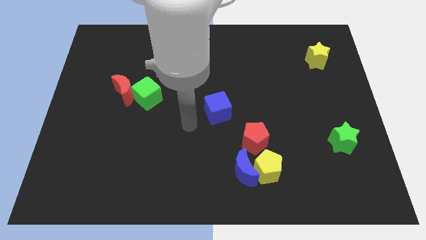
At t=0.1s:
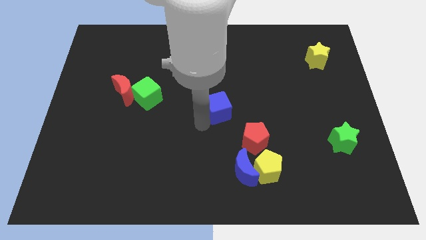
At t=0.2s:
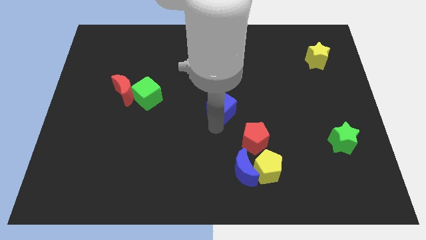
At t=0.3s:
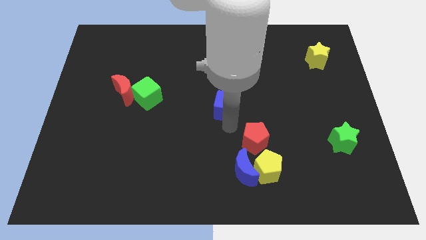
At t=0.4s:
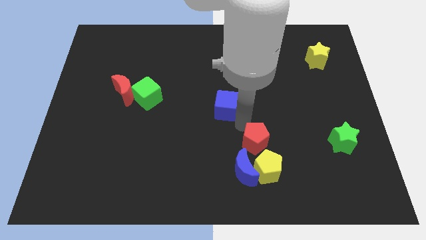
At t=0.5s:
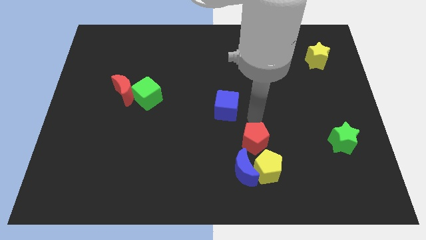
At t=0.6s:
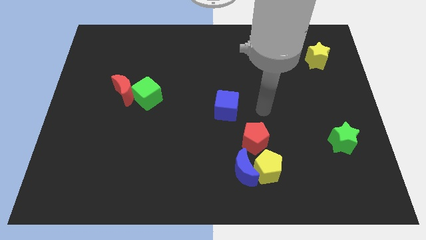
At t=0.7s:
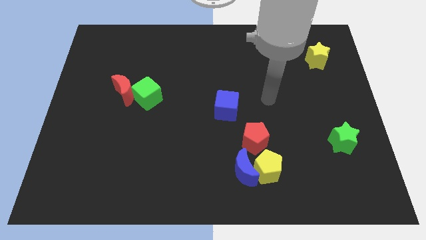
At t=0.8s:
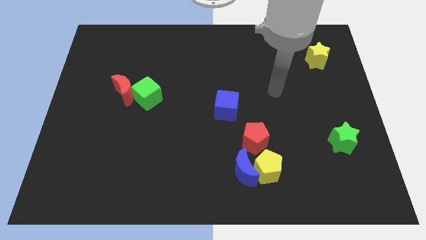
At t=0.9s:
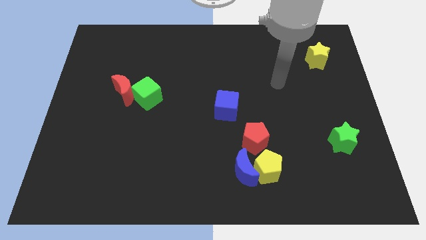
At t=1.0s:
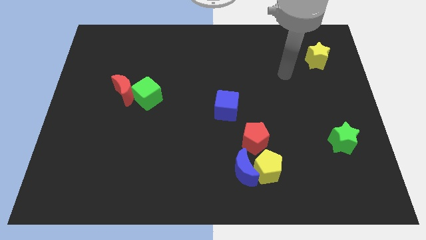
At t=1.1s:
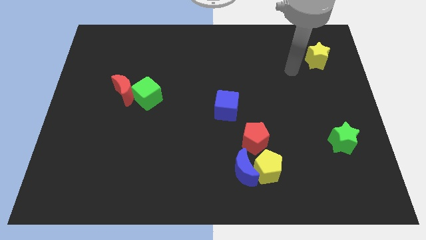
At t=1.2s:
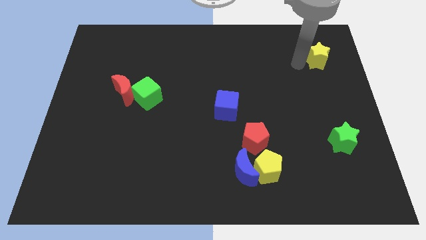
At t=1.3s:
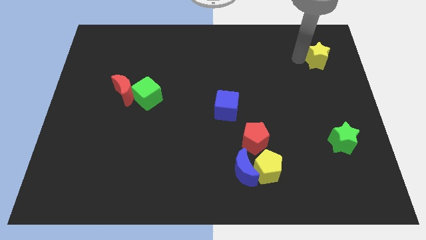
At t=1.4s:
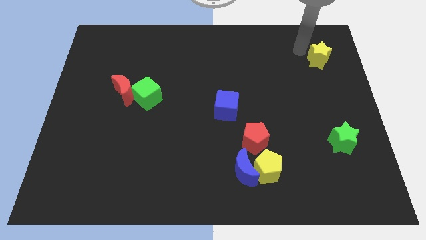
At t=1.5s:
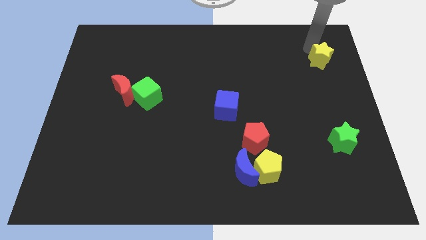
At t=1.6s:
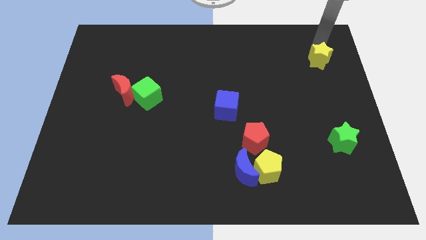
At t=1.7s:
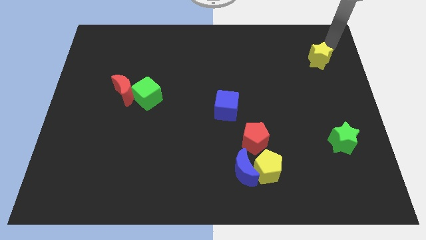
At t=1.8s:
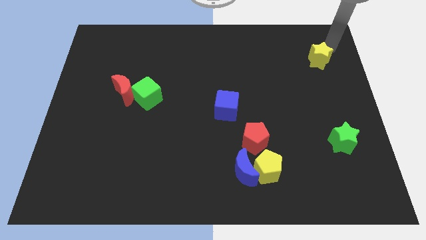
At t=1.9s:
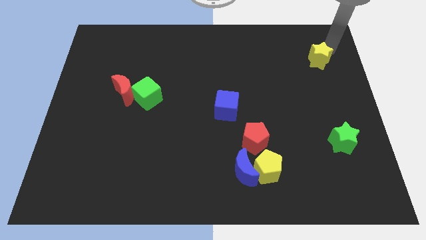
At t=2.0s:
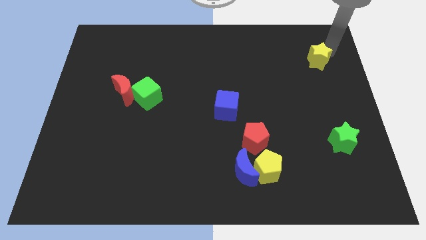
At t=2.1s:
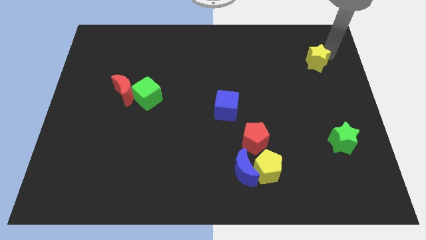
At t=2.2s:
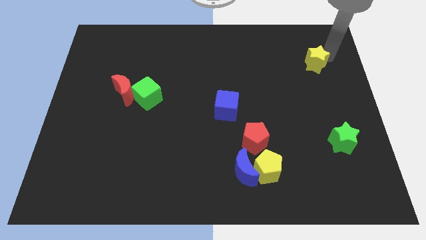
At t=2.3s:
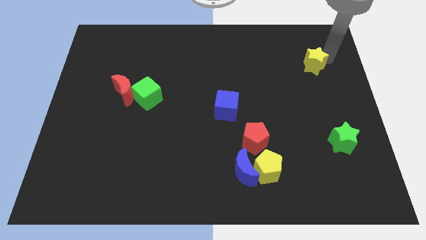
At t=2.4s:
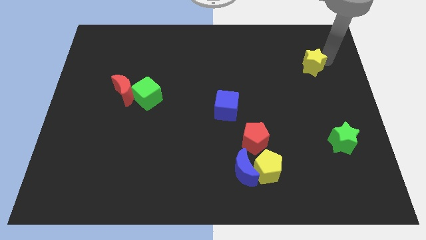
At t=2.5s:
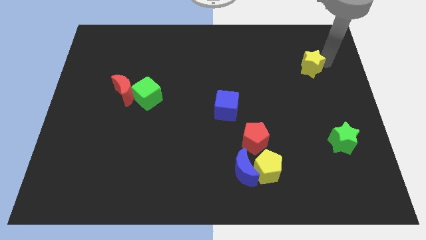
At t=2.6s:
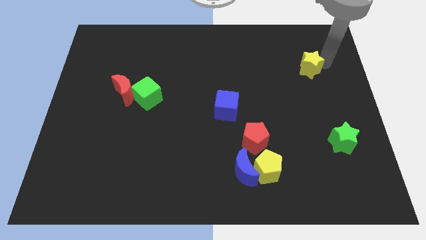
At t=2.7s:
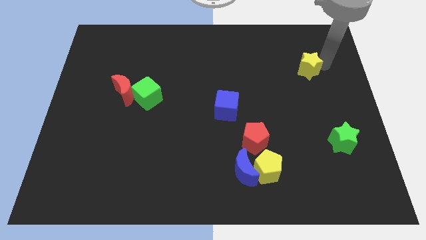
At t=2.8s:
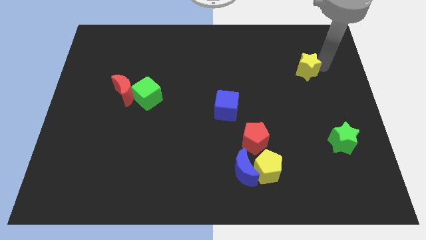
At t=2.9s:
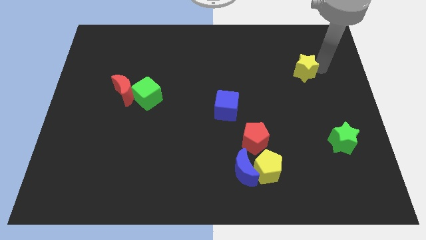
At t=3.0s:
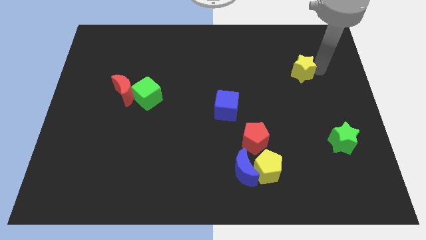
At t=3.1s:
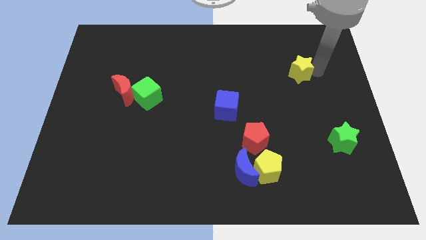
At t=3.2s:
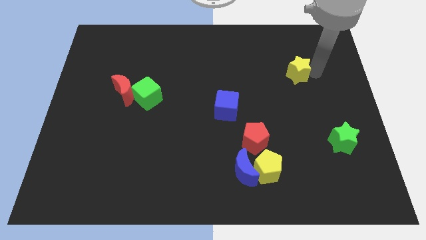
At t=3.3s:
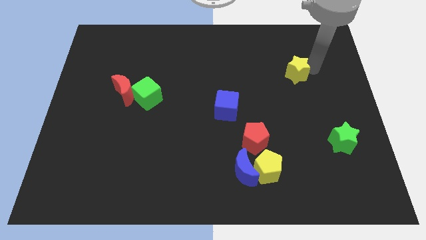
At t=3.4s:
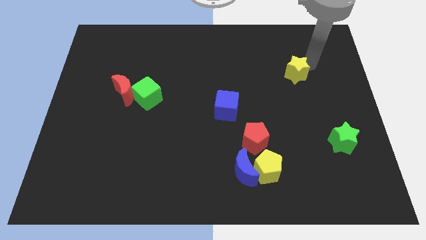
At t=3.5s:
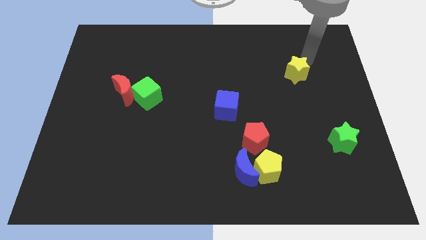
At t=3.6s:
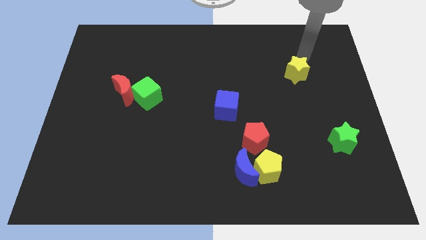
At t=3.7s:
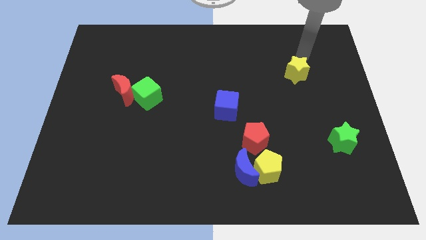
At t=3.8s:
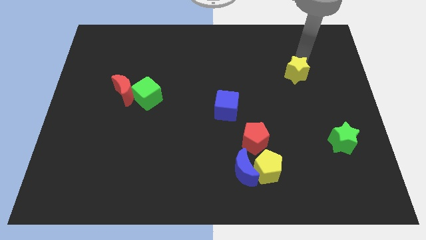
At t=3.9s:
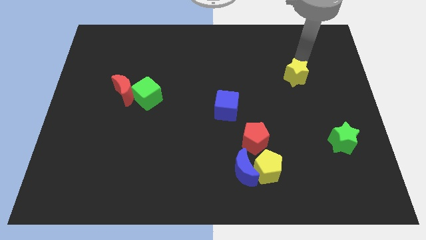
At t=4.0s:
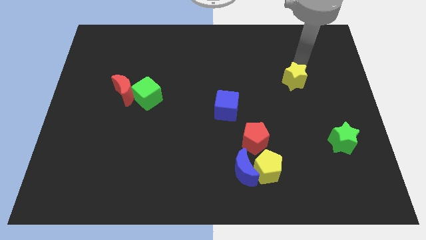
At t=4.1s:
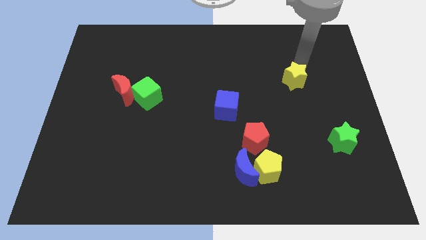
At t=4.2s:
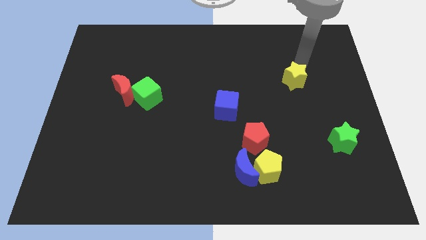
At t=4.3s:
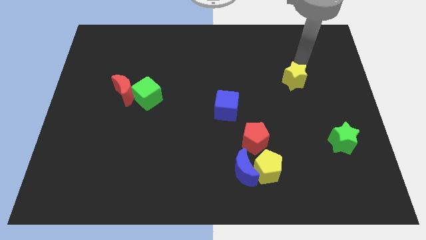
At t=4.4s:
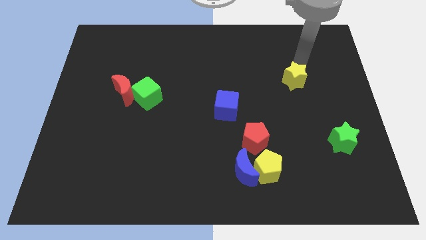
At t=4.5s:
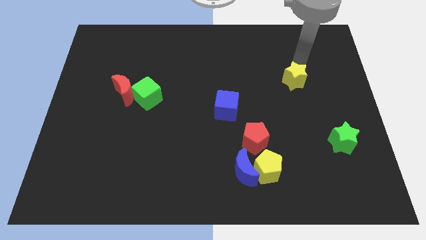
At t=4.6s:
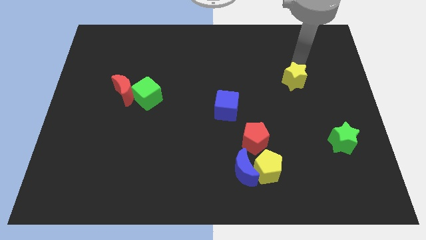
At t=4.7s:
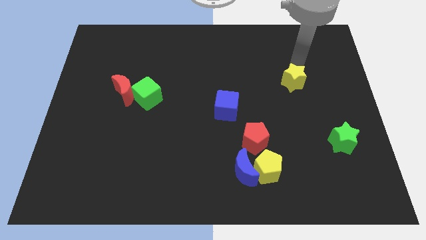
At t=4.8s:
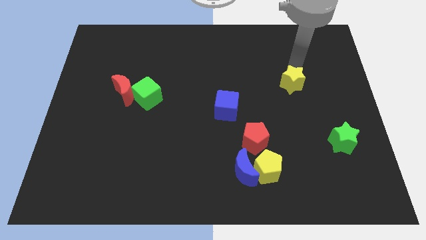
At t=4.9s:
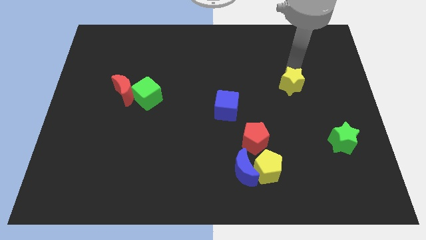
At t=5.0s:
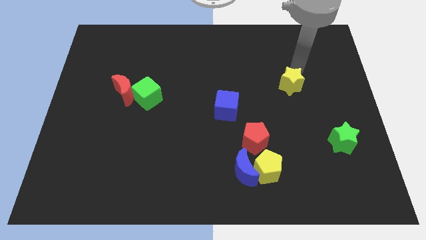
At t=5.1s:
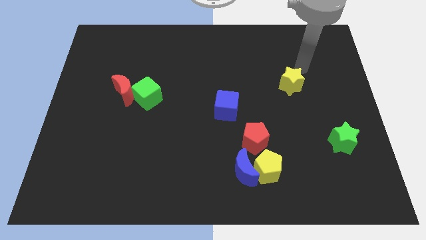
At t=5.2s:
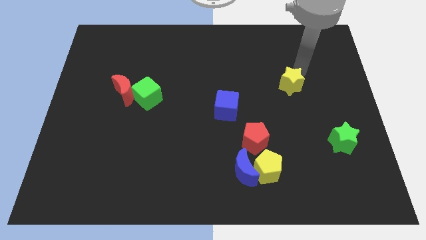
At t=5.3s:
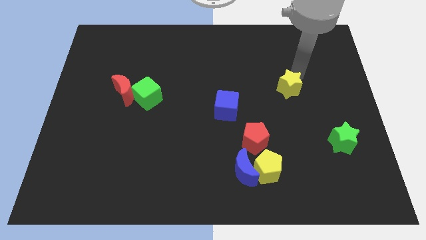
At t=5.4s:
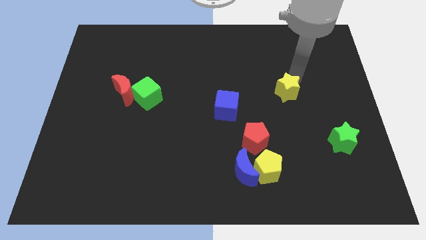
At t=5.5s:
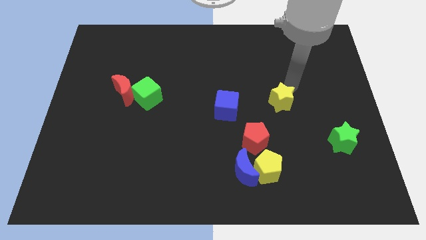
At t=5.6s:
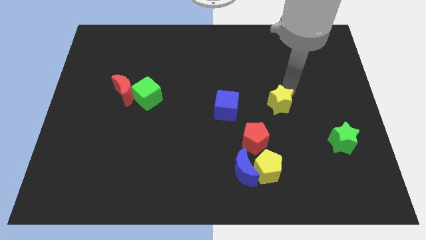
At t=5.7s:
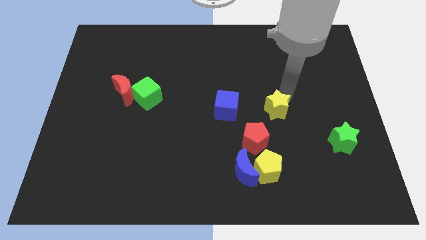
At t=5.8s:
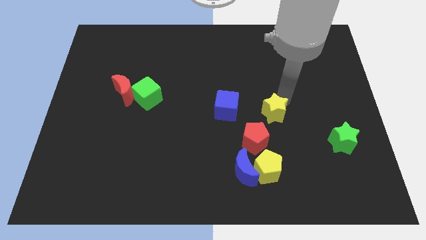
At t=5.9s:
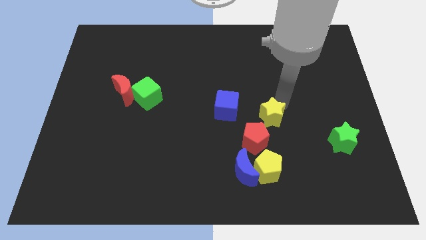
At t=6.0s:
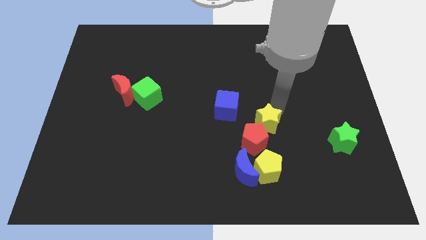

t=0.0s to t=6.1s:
push the yellow star towards the red pentagon

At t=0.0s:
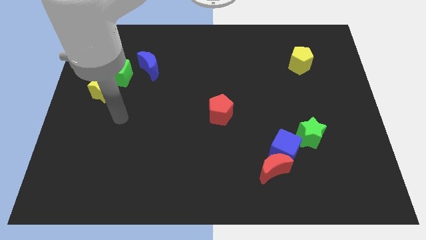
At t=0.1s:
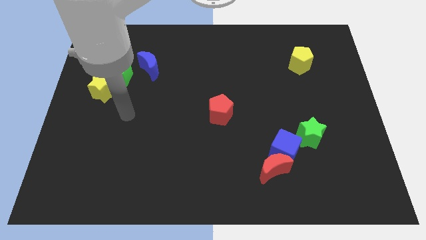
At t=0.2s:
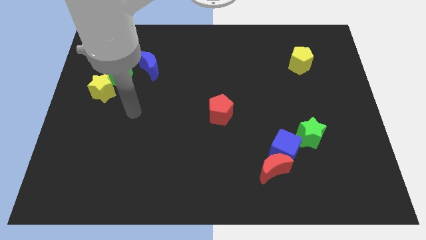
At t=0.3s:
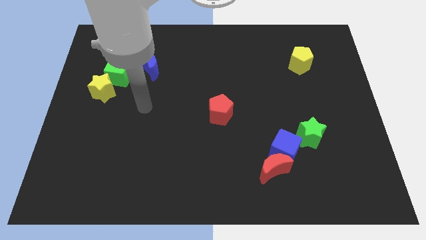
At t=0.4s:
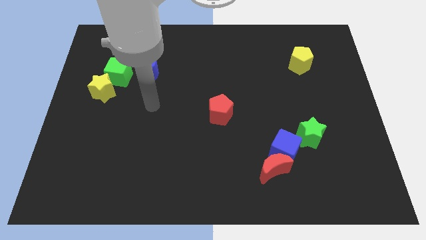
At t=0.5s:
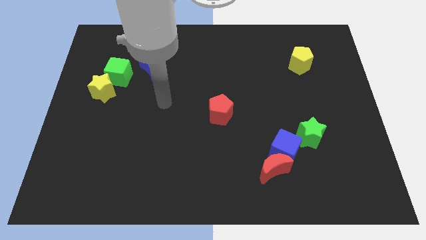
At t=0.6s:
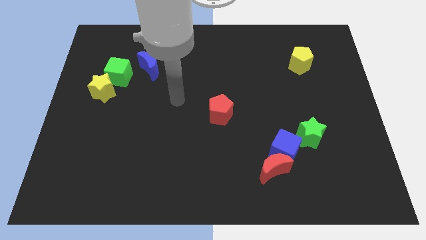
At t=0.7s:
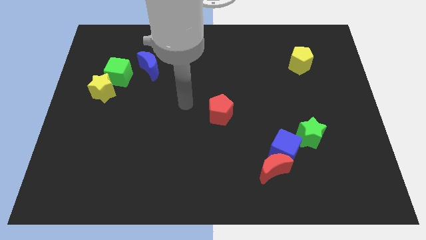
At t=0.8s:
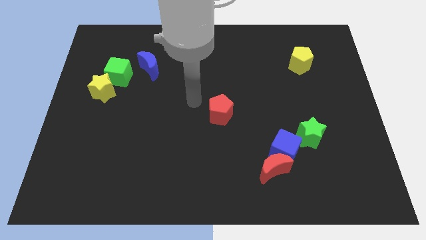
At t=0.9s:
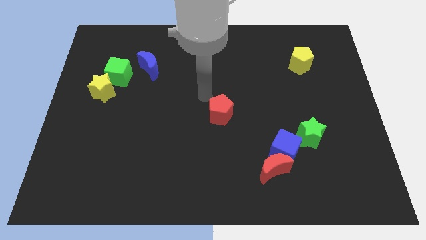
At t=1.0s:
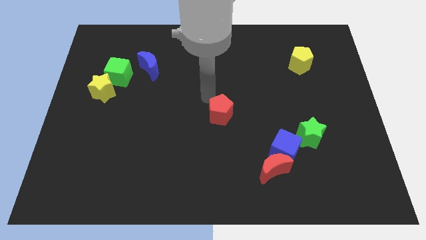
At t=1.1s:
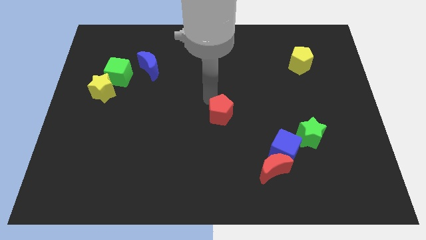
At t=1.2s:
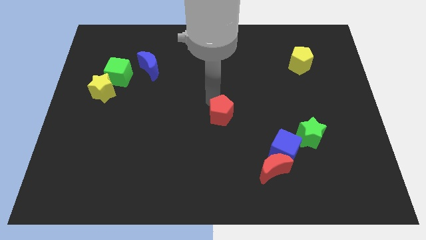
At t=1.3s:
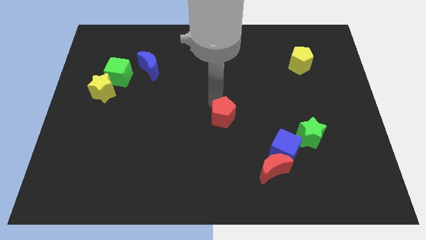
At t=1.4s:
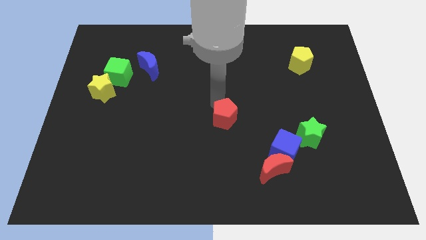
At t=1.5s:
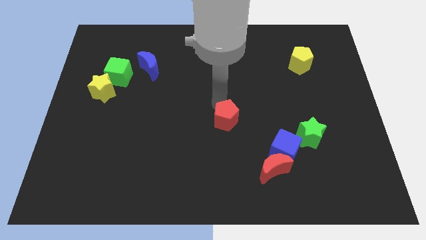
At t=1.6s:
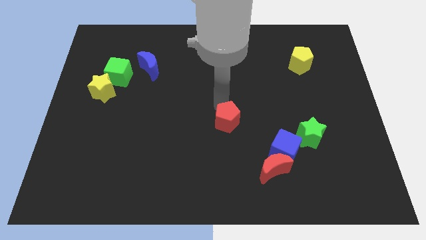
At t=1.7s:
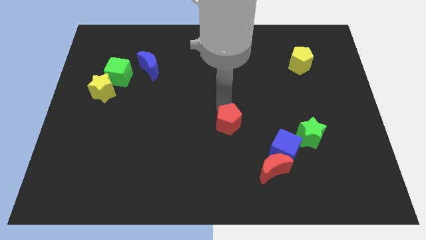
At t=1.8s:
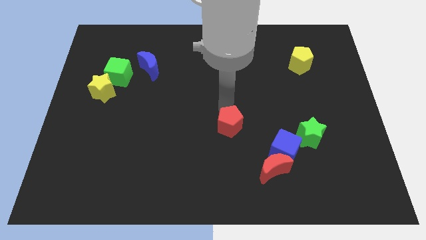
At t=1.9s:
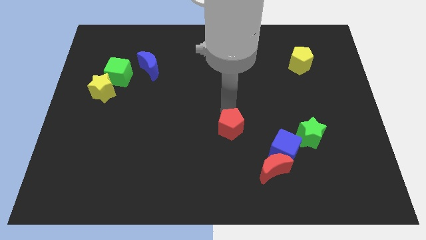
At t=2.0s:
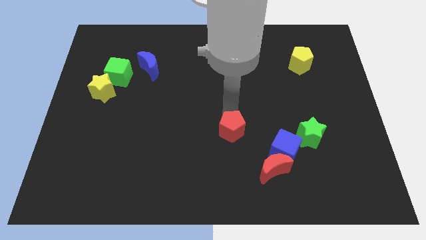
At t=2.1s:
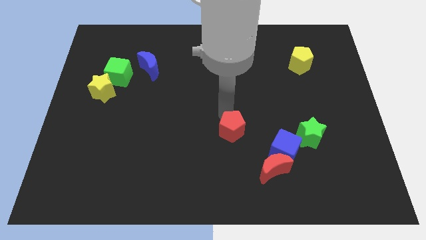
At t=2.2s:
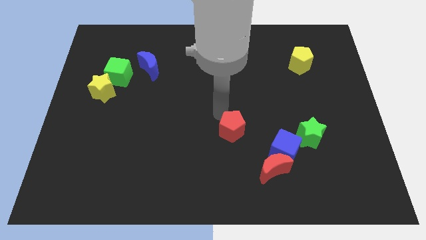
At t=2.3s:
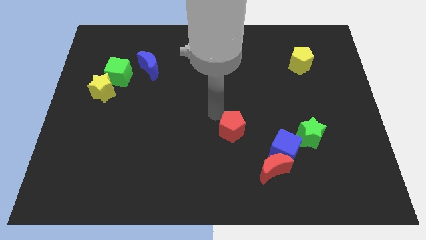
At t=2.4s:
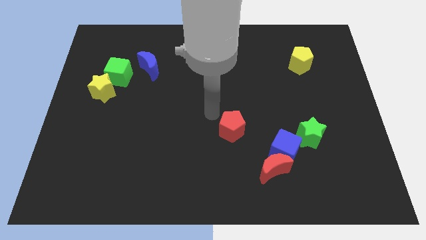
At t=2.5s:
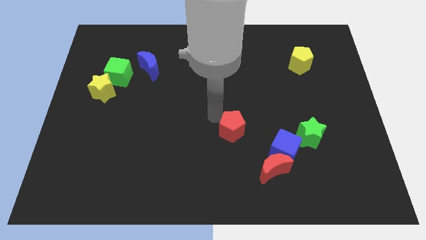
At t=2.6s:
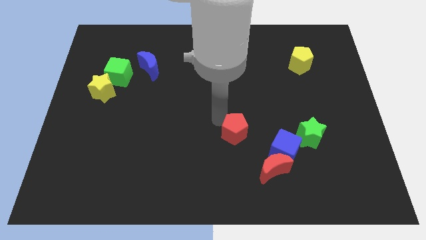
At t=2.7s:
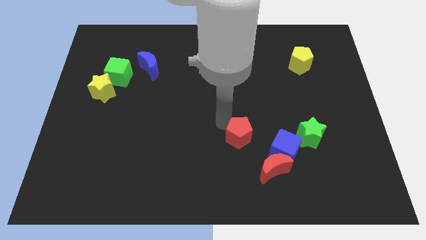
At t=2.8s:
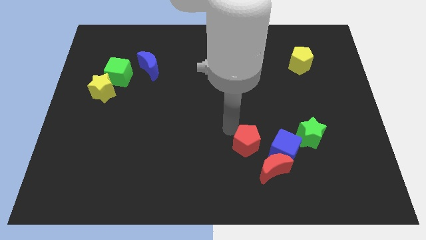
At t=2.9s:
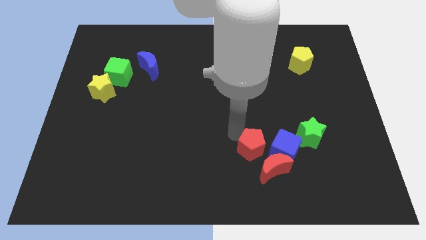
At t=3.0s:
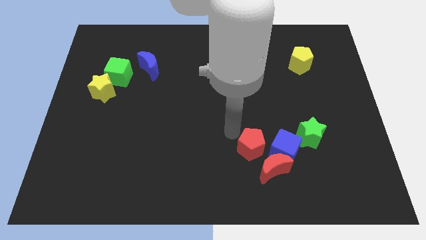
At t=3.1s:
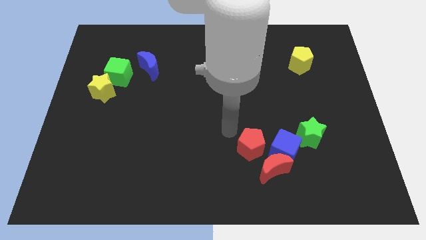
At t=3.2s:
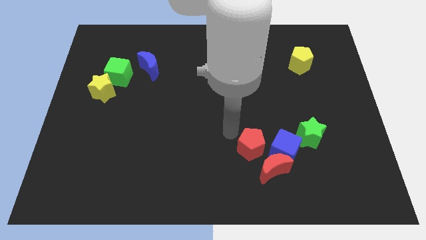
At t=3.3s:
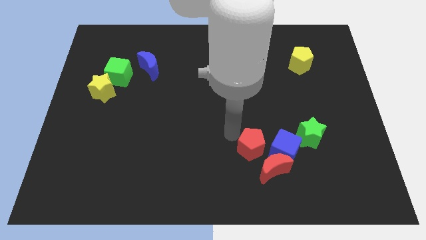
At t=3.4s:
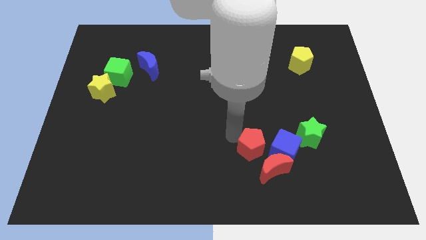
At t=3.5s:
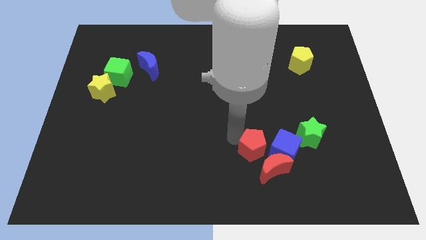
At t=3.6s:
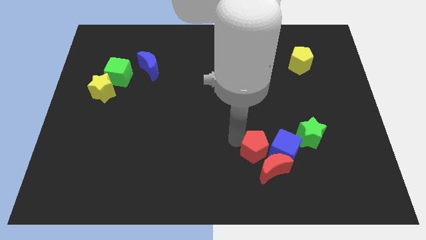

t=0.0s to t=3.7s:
put the red pentagon next to the red moon
